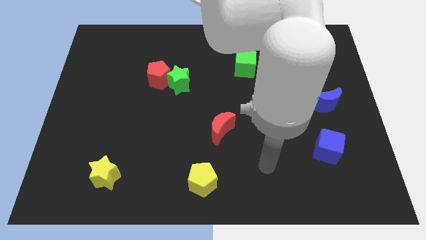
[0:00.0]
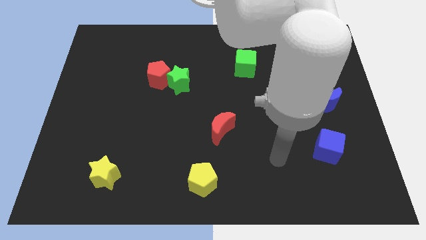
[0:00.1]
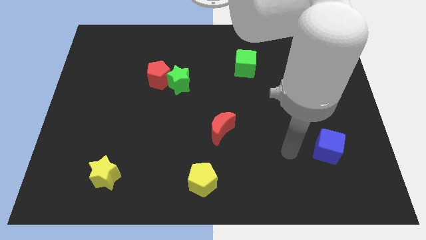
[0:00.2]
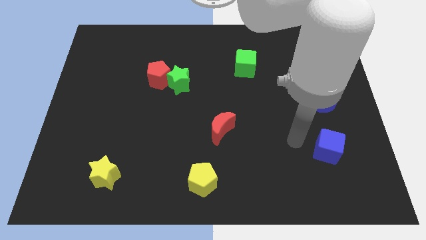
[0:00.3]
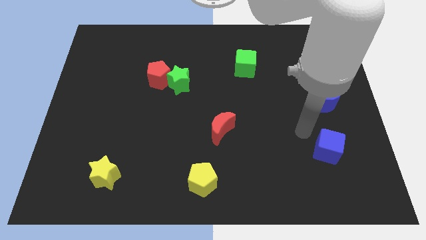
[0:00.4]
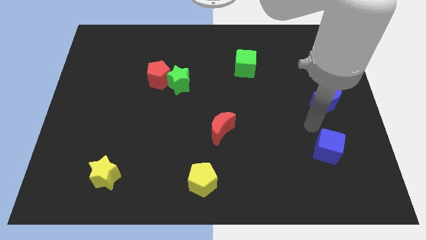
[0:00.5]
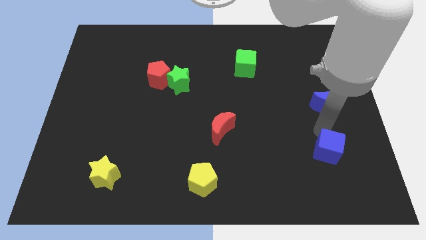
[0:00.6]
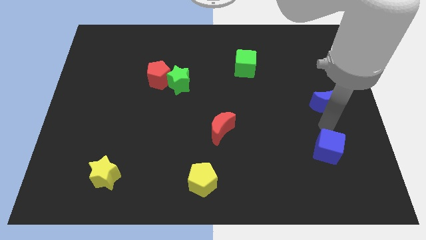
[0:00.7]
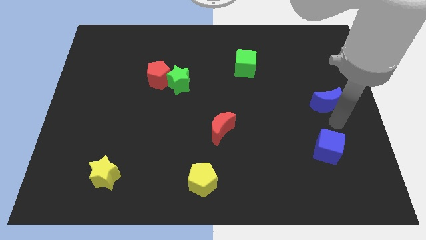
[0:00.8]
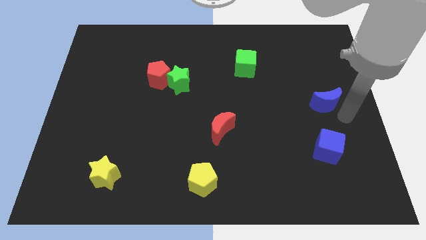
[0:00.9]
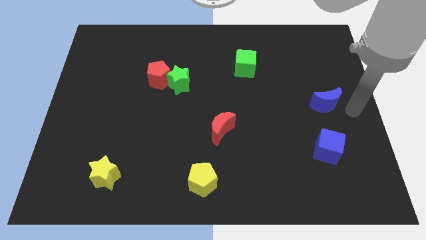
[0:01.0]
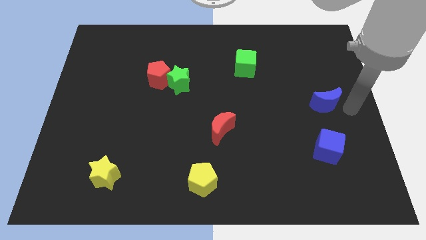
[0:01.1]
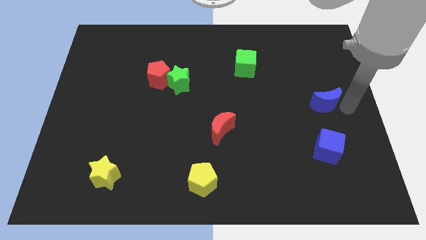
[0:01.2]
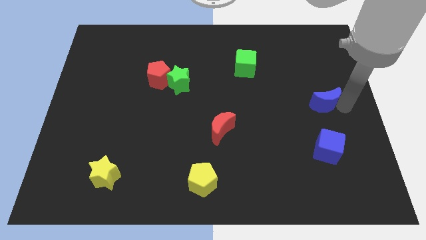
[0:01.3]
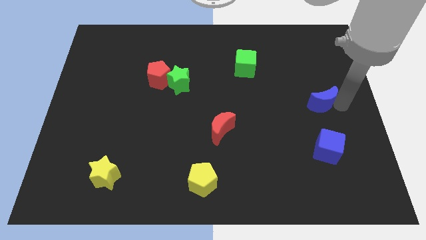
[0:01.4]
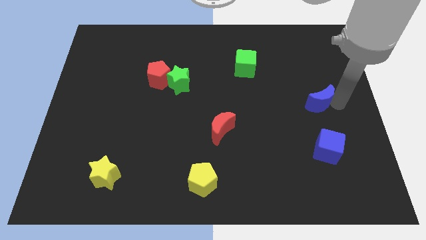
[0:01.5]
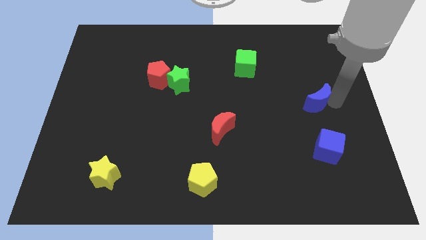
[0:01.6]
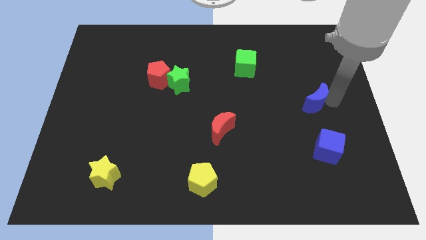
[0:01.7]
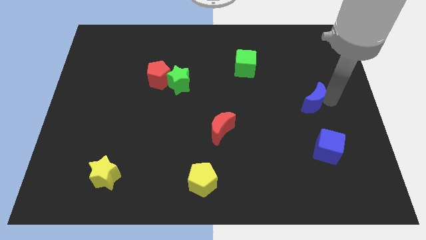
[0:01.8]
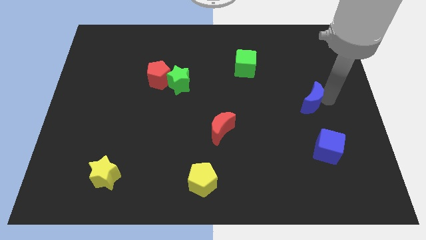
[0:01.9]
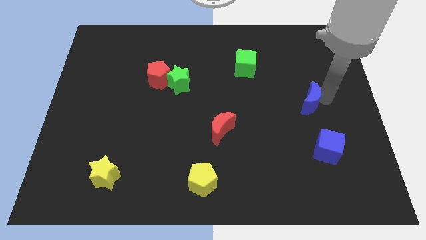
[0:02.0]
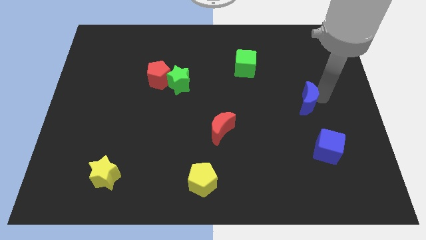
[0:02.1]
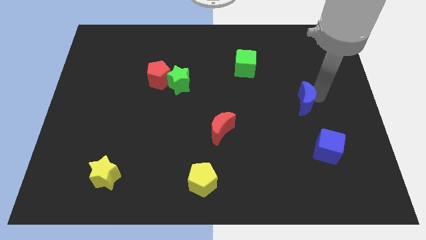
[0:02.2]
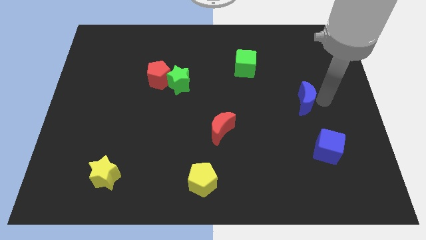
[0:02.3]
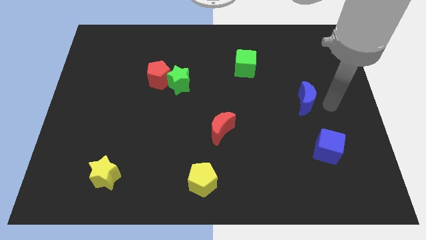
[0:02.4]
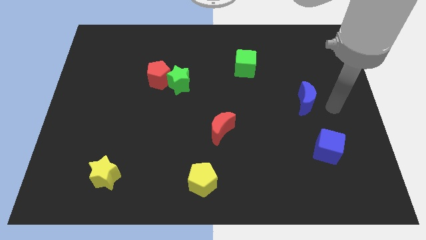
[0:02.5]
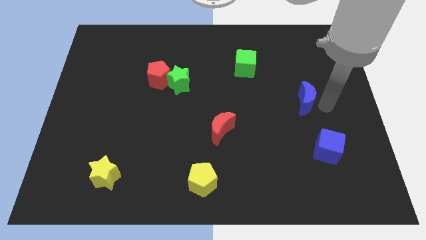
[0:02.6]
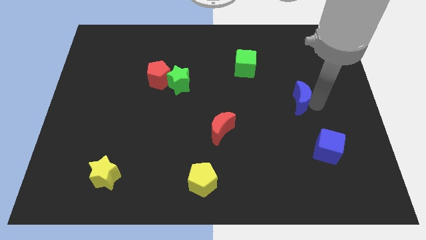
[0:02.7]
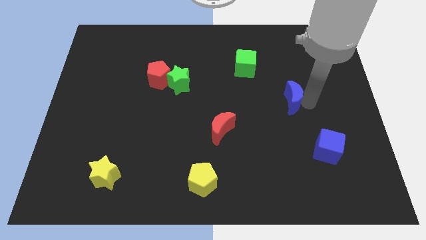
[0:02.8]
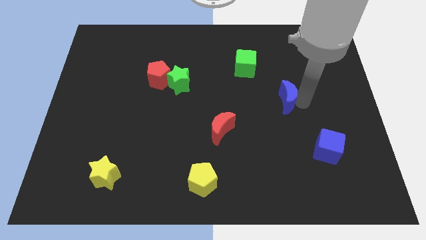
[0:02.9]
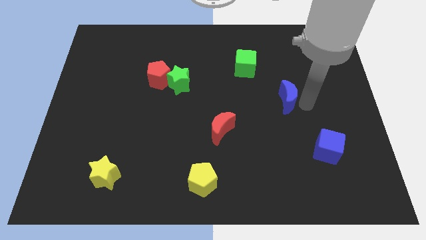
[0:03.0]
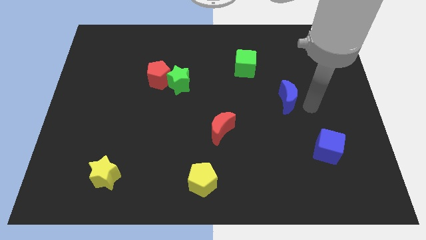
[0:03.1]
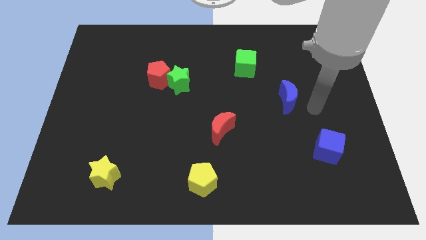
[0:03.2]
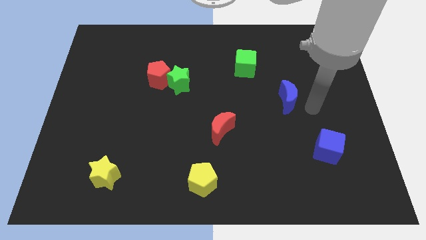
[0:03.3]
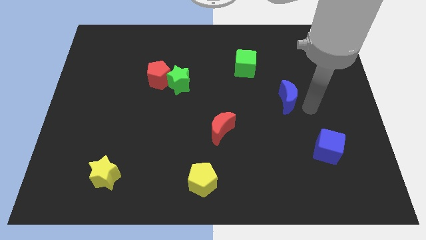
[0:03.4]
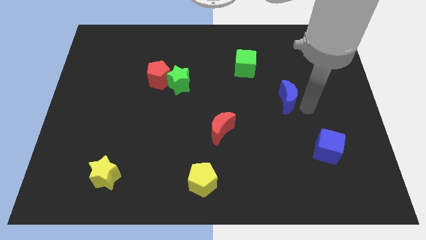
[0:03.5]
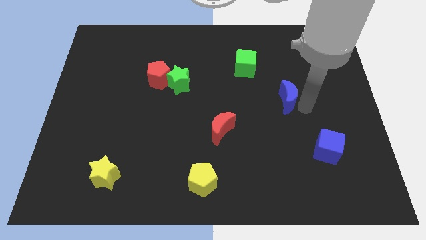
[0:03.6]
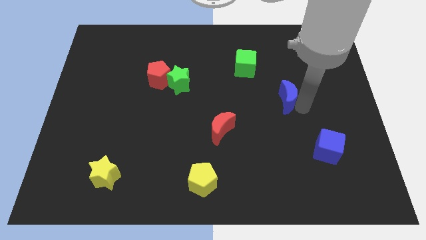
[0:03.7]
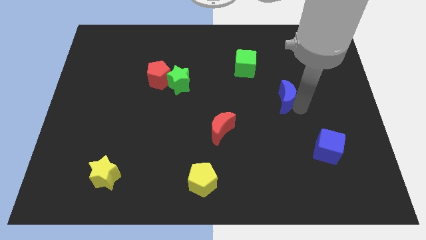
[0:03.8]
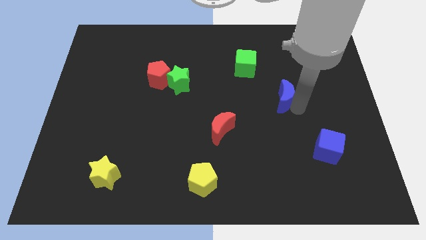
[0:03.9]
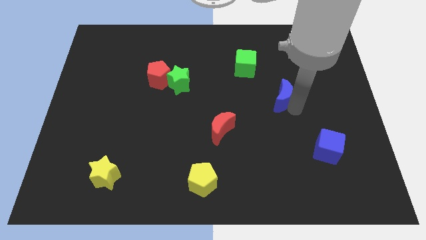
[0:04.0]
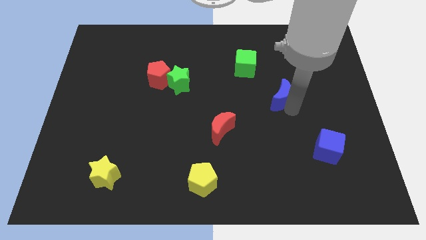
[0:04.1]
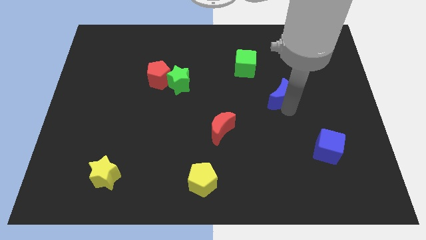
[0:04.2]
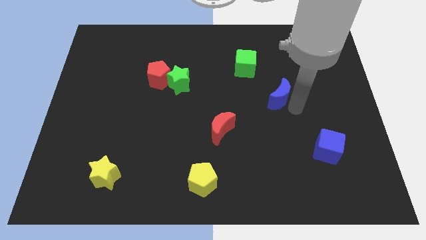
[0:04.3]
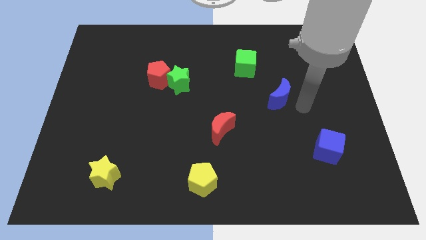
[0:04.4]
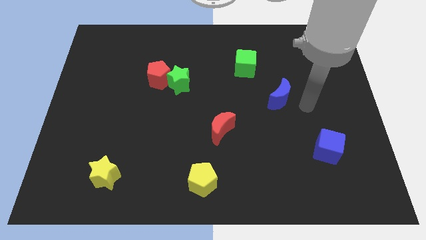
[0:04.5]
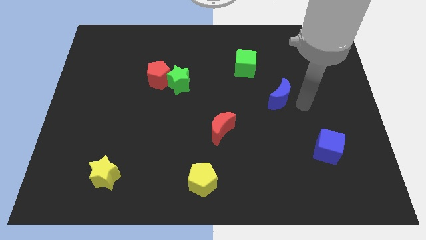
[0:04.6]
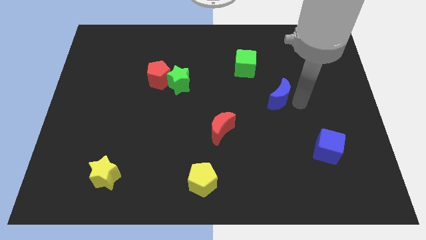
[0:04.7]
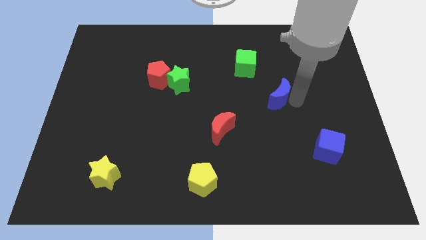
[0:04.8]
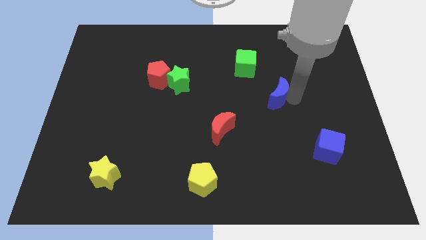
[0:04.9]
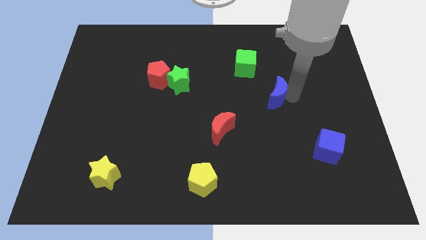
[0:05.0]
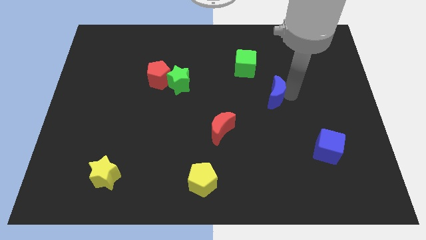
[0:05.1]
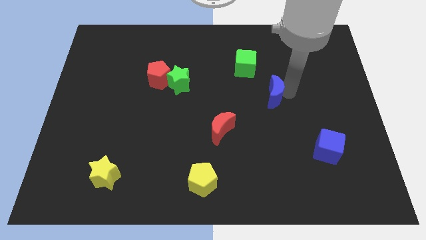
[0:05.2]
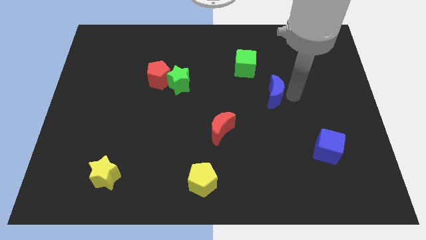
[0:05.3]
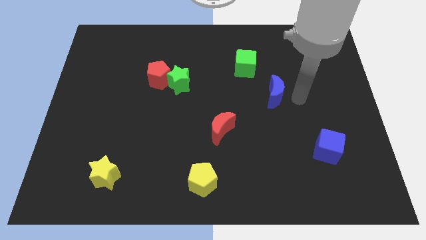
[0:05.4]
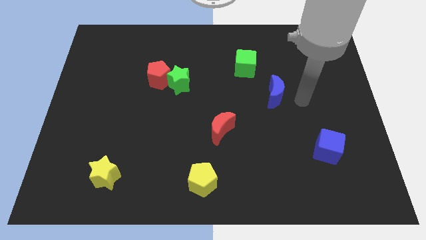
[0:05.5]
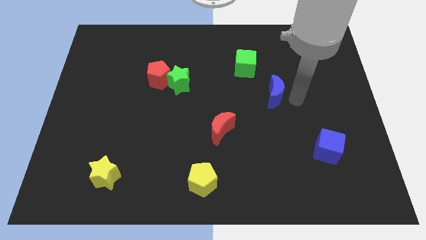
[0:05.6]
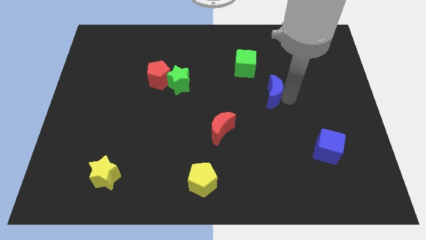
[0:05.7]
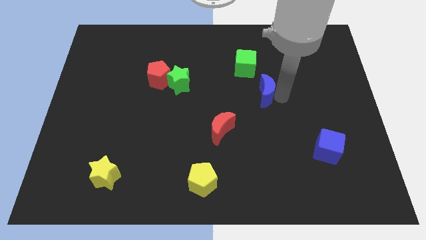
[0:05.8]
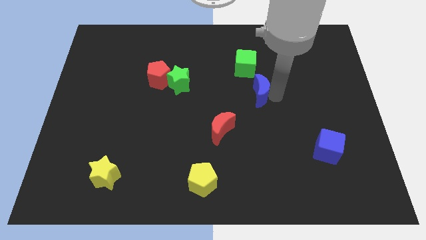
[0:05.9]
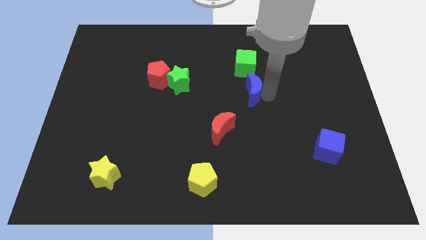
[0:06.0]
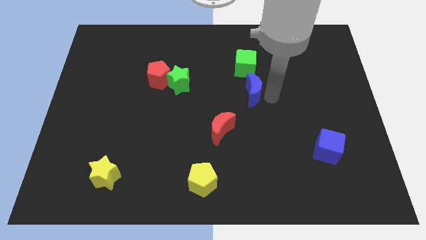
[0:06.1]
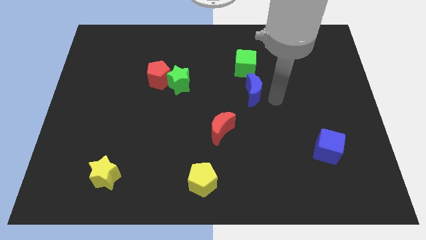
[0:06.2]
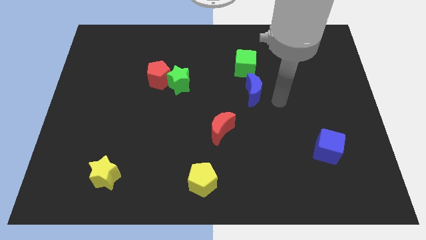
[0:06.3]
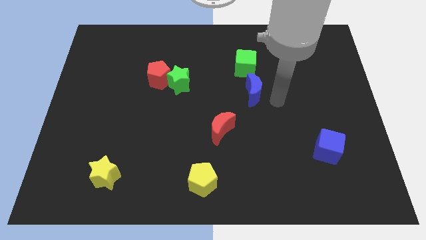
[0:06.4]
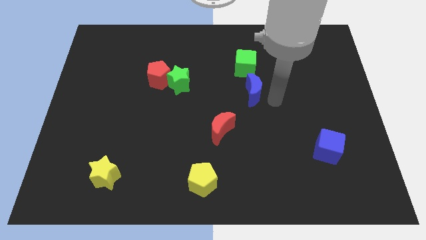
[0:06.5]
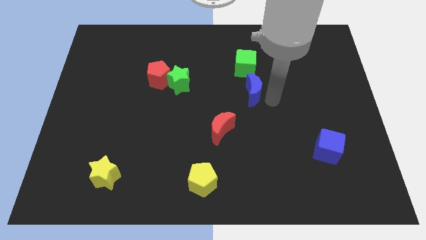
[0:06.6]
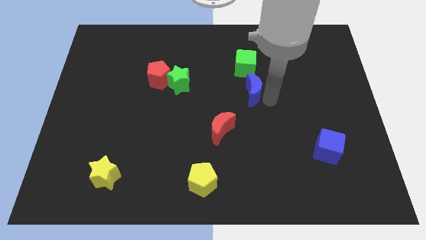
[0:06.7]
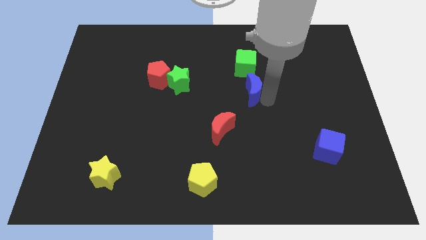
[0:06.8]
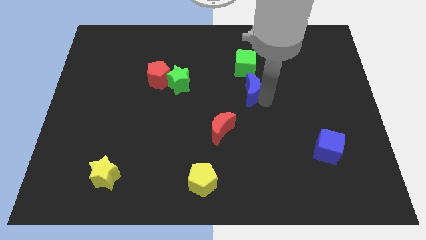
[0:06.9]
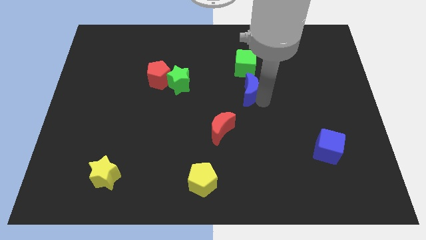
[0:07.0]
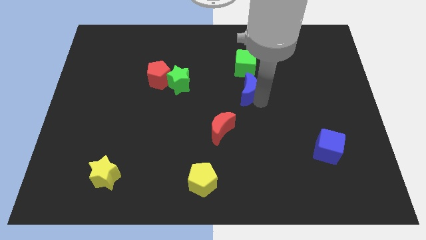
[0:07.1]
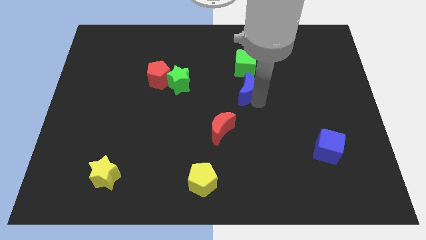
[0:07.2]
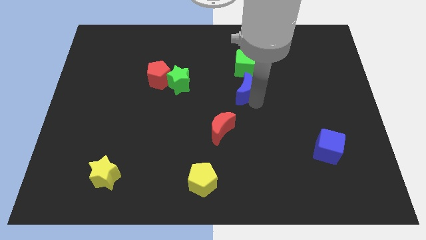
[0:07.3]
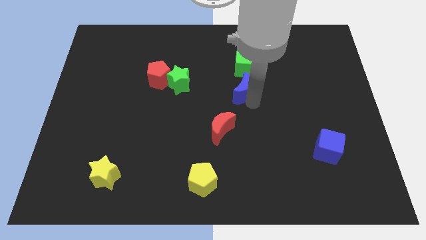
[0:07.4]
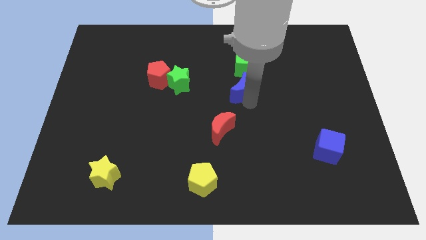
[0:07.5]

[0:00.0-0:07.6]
slide the blue moon just right of the green star
